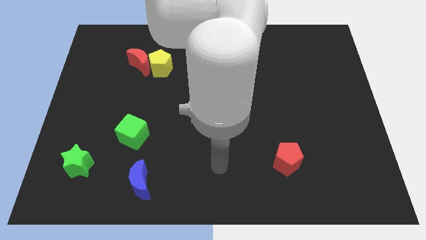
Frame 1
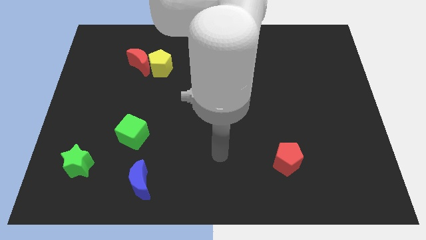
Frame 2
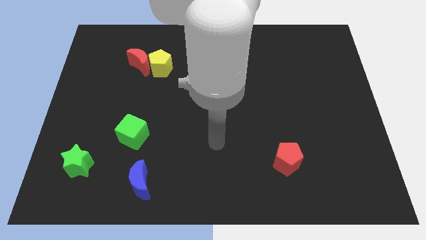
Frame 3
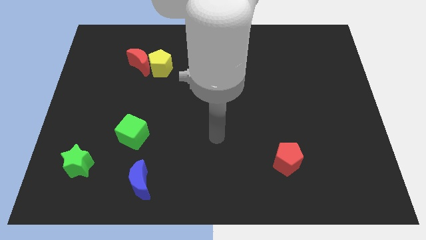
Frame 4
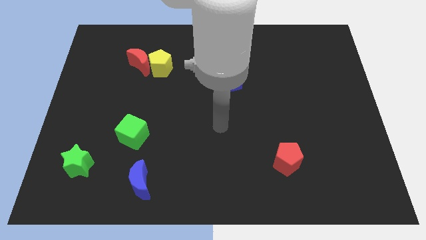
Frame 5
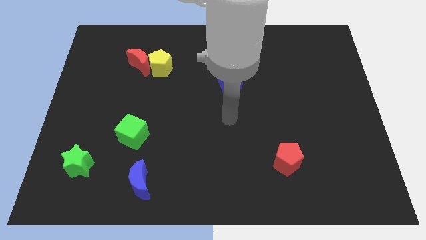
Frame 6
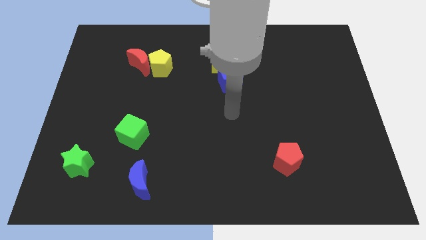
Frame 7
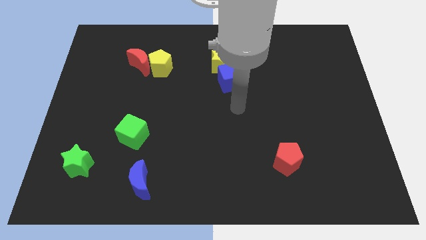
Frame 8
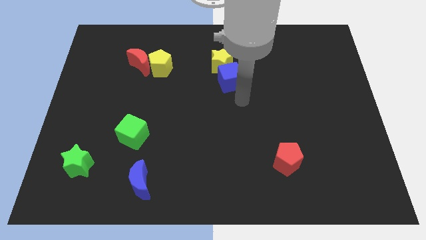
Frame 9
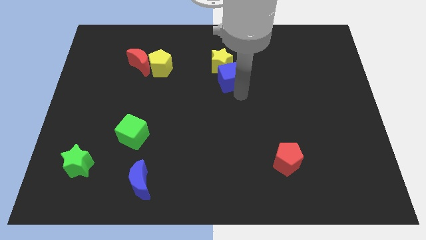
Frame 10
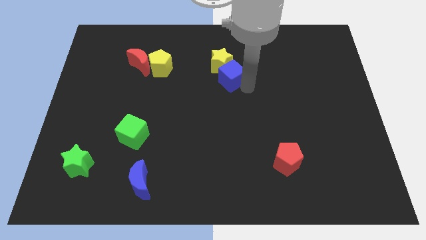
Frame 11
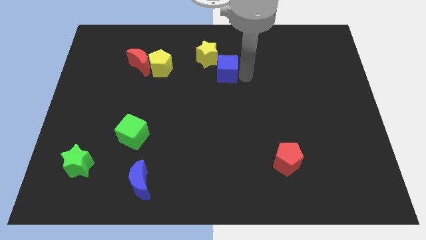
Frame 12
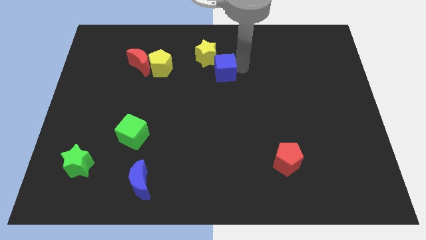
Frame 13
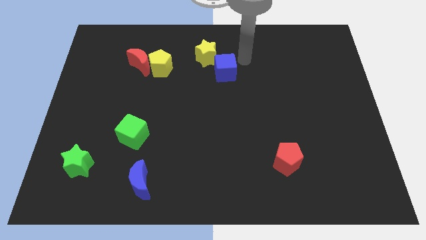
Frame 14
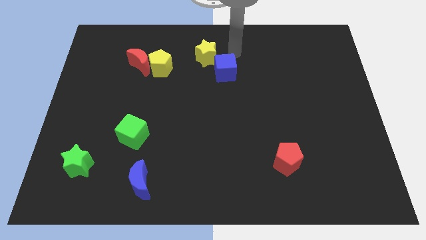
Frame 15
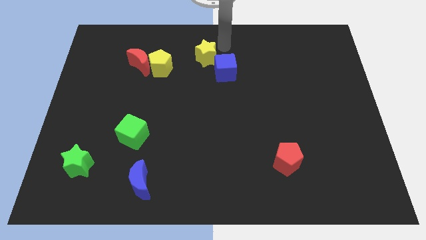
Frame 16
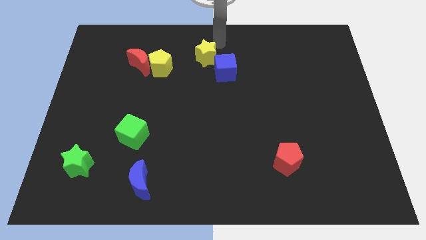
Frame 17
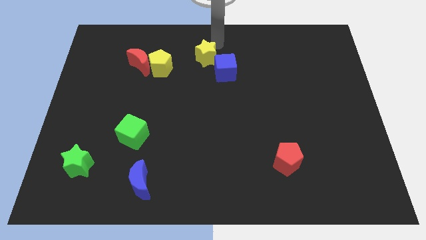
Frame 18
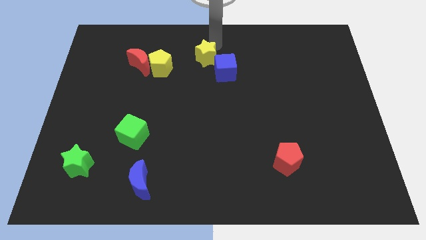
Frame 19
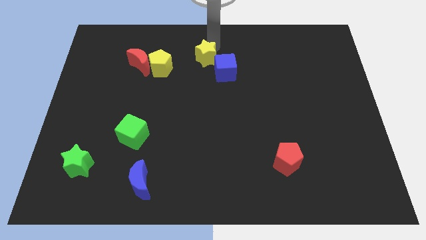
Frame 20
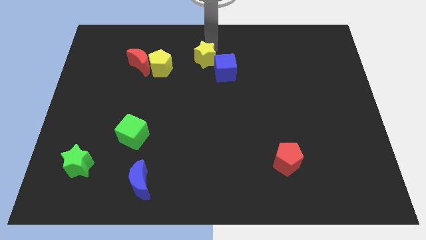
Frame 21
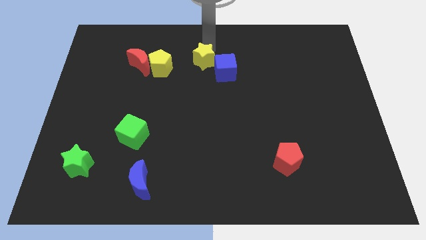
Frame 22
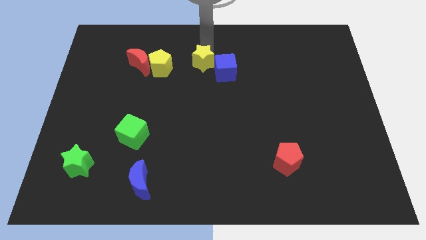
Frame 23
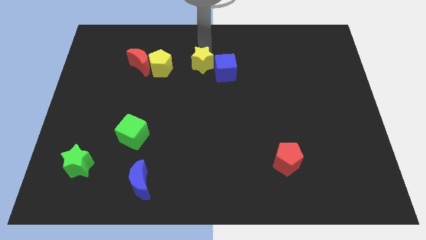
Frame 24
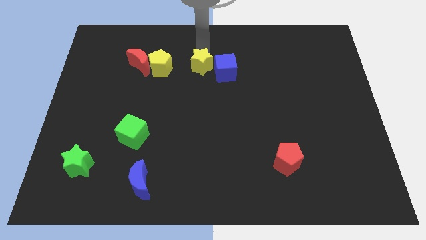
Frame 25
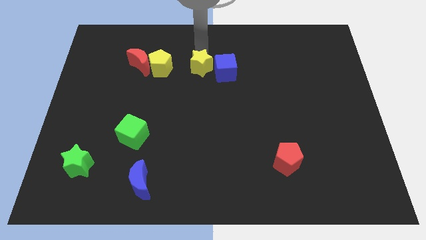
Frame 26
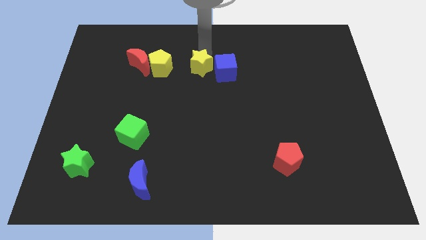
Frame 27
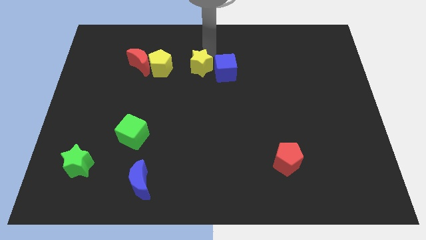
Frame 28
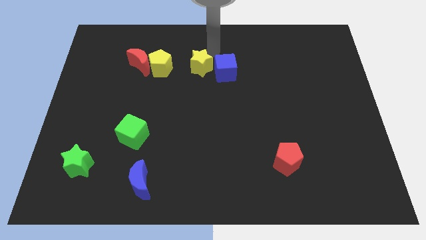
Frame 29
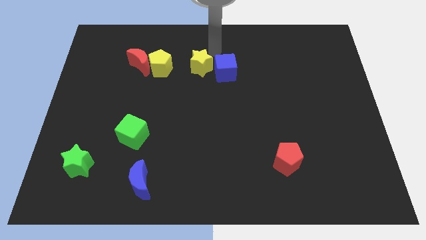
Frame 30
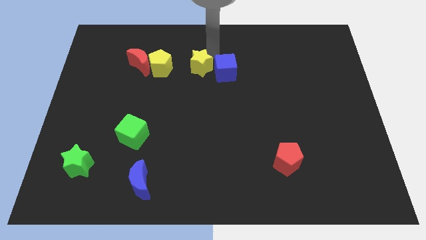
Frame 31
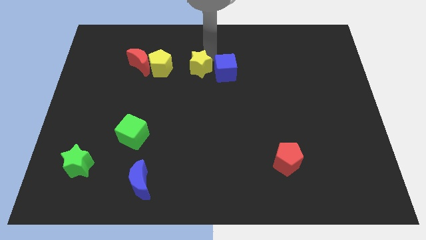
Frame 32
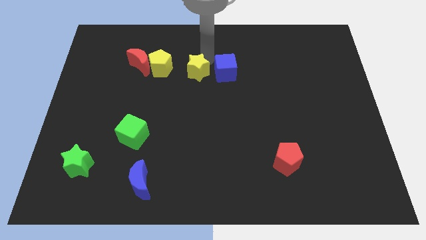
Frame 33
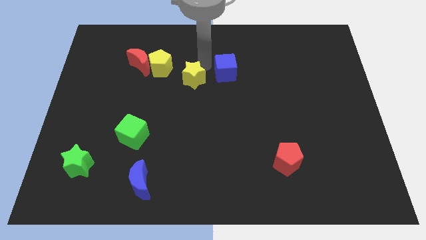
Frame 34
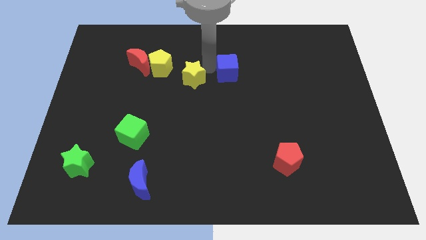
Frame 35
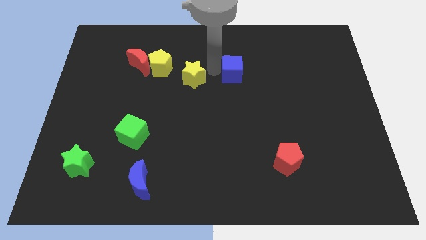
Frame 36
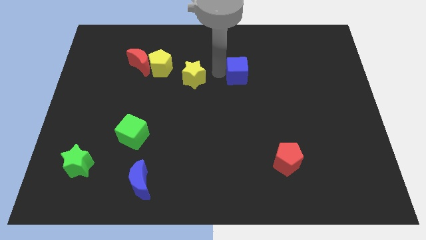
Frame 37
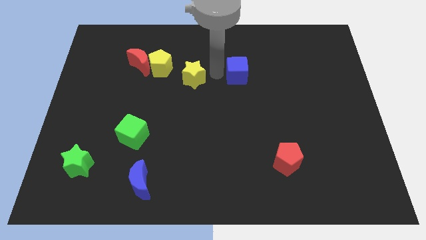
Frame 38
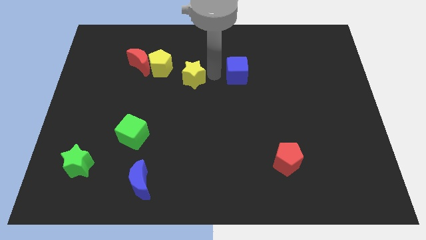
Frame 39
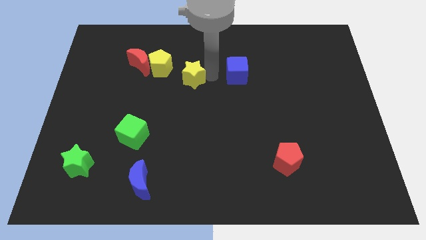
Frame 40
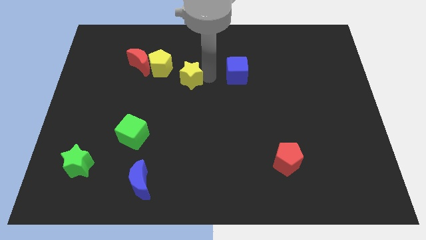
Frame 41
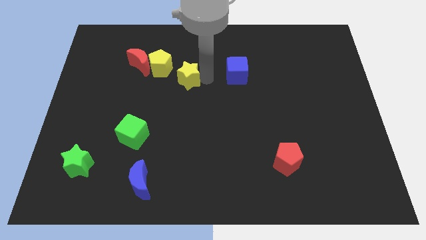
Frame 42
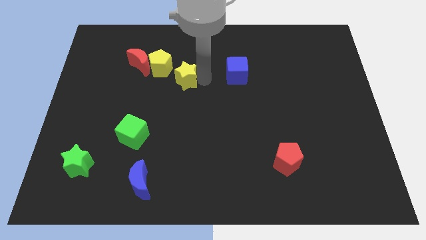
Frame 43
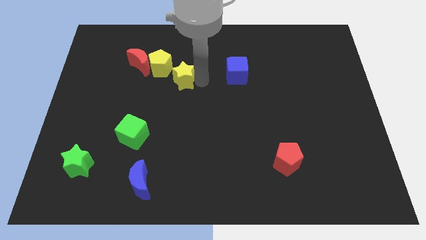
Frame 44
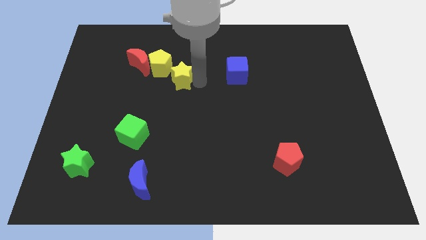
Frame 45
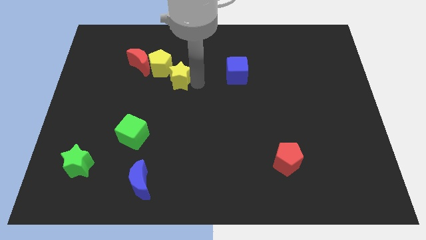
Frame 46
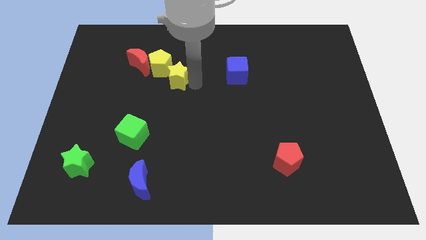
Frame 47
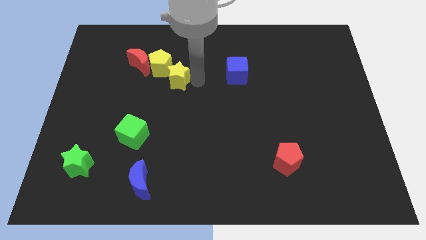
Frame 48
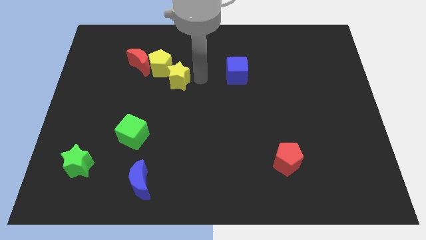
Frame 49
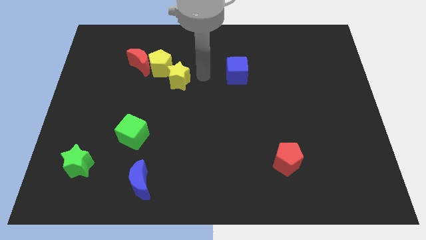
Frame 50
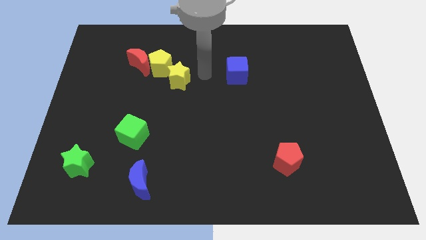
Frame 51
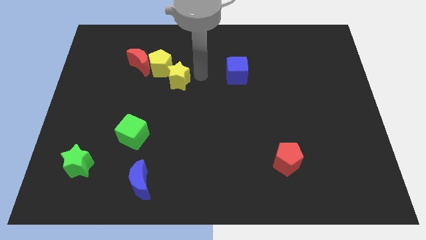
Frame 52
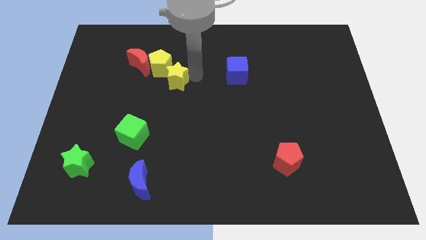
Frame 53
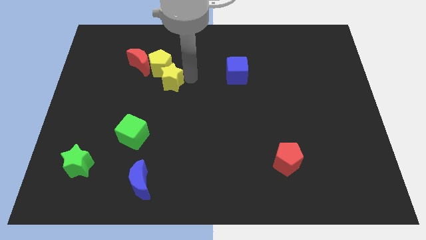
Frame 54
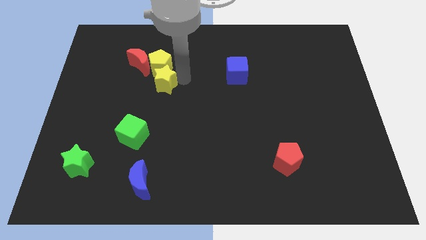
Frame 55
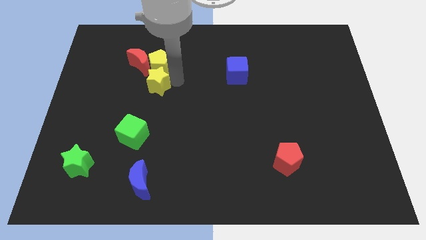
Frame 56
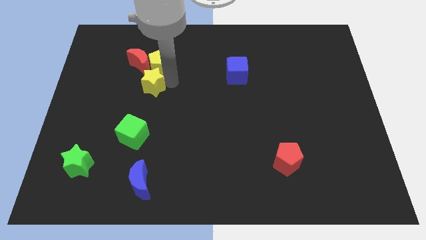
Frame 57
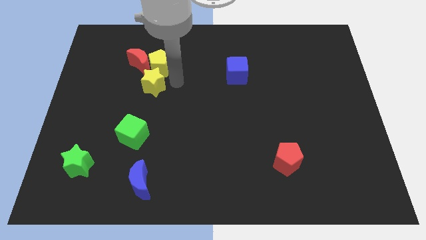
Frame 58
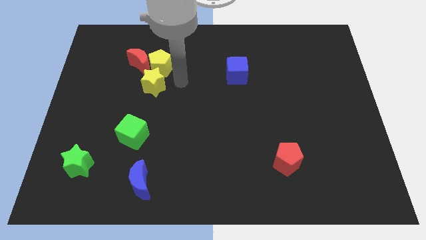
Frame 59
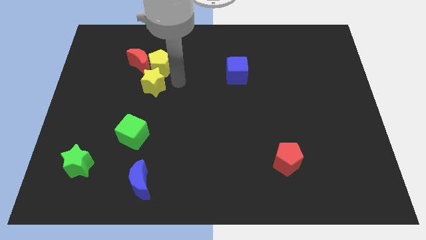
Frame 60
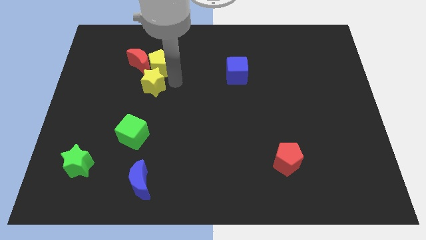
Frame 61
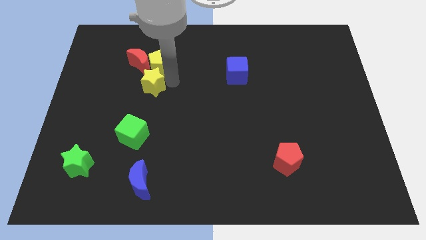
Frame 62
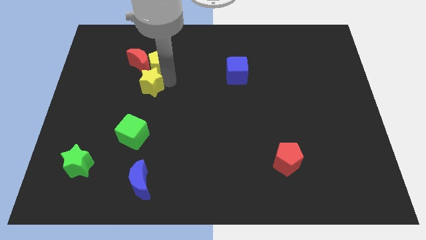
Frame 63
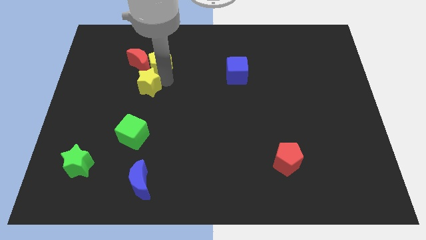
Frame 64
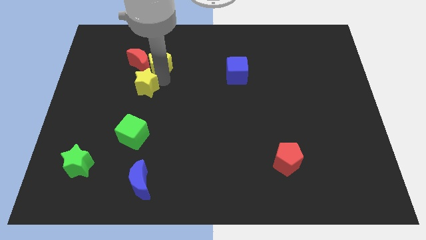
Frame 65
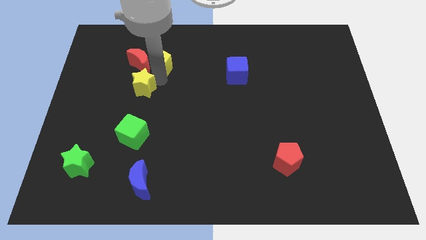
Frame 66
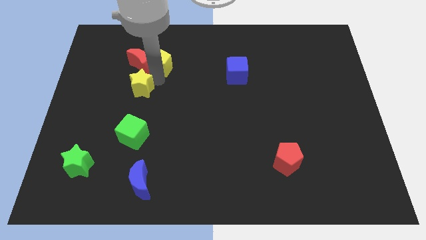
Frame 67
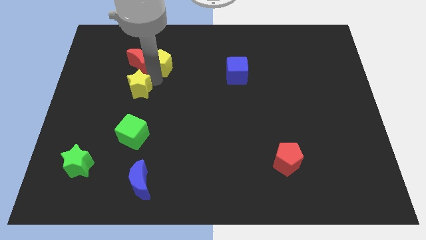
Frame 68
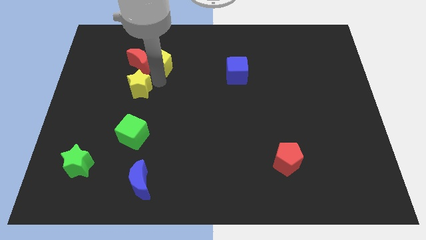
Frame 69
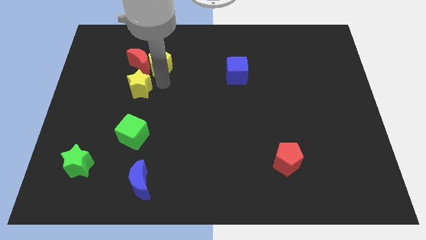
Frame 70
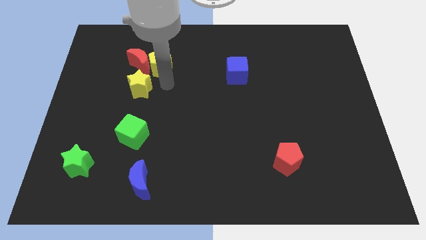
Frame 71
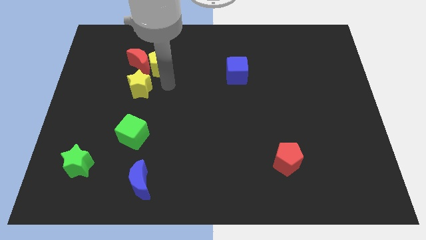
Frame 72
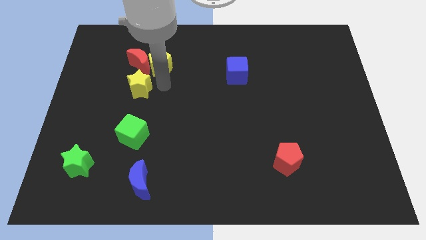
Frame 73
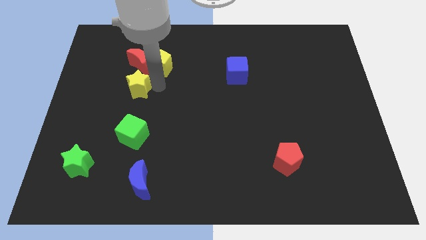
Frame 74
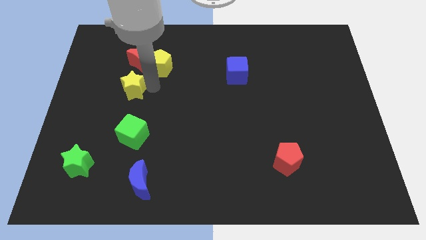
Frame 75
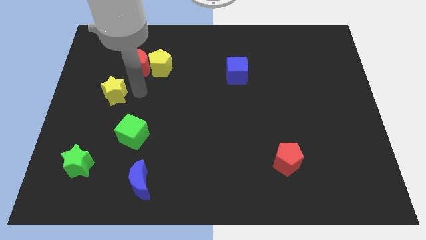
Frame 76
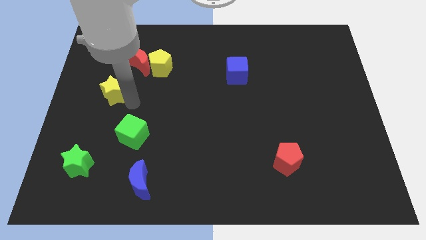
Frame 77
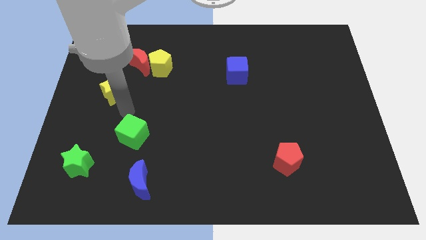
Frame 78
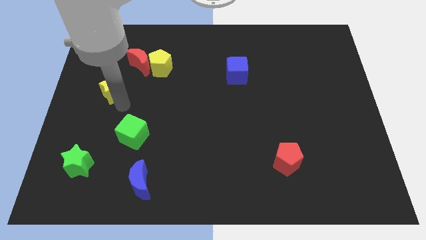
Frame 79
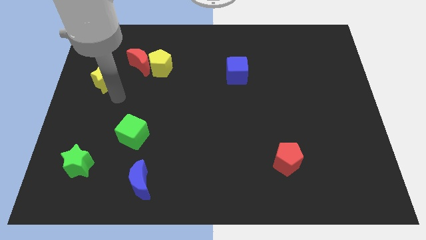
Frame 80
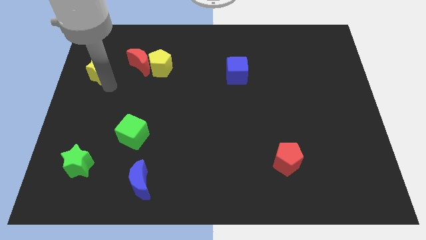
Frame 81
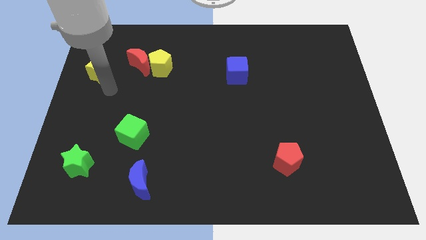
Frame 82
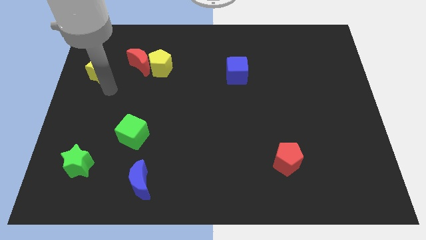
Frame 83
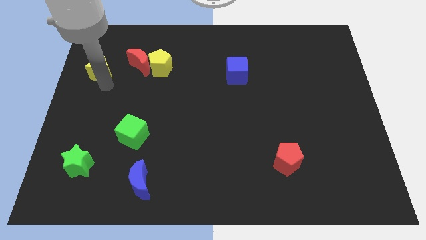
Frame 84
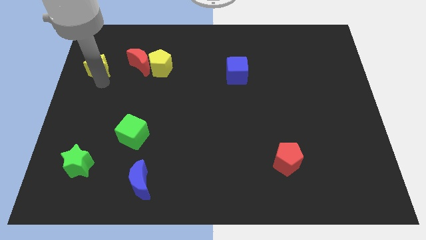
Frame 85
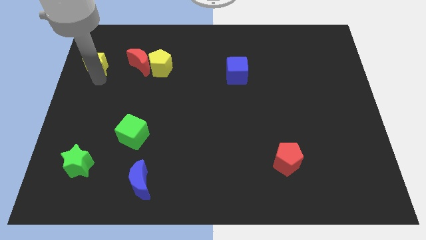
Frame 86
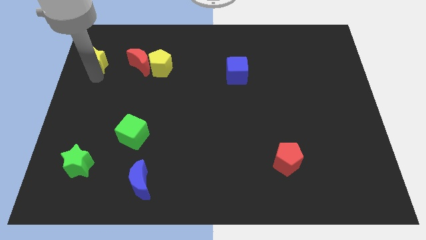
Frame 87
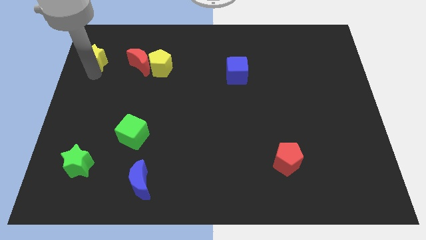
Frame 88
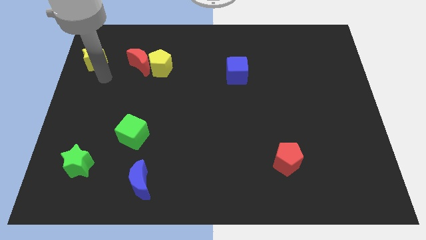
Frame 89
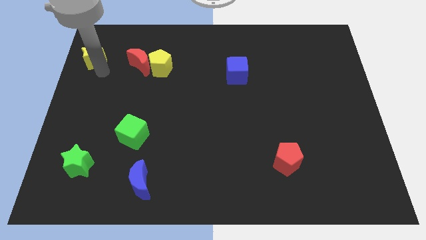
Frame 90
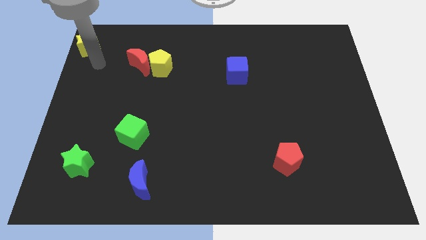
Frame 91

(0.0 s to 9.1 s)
slide the yellow star to the top left corner
